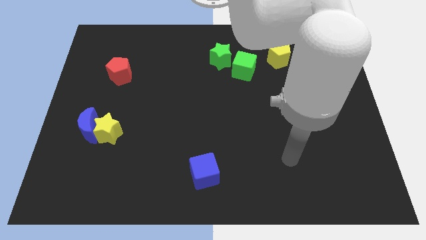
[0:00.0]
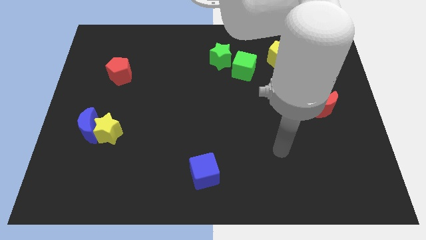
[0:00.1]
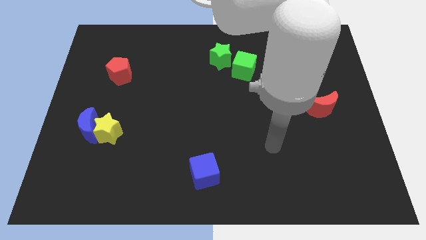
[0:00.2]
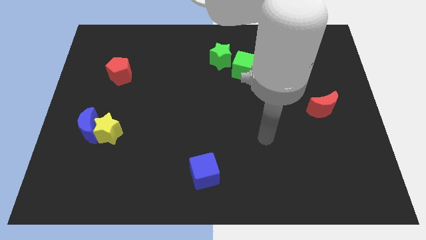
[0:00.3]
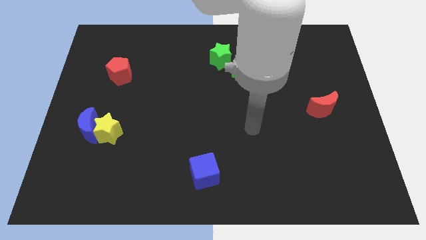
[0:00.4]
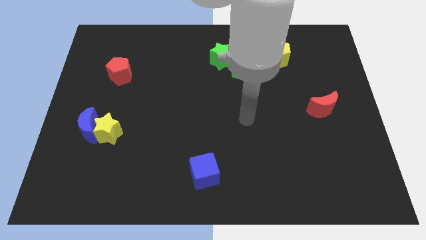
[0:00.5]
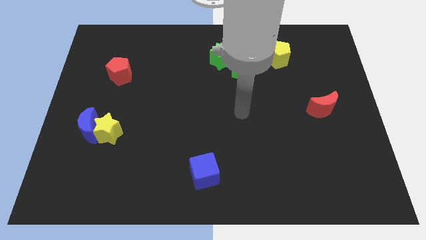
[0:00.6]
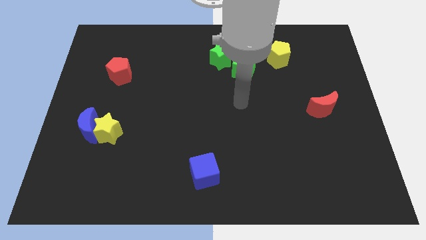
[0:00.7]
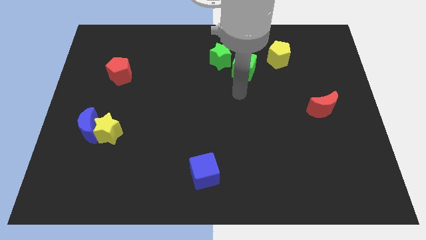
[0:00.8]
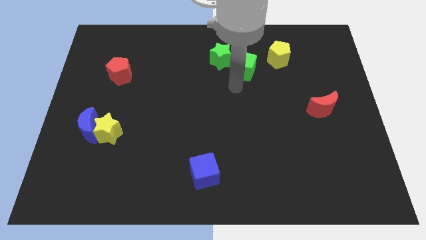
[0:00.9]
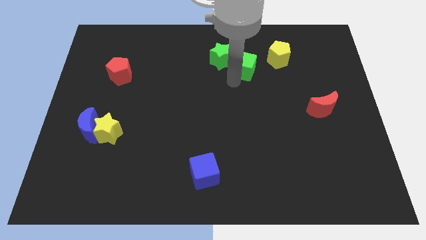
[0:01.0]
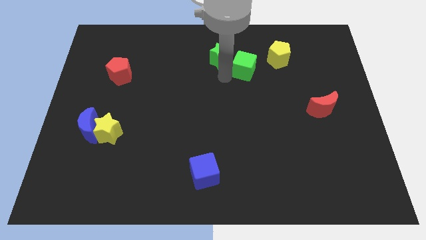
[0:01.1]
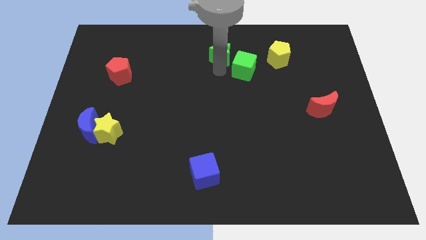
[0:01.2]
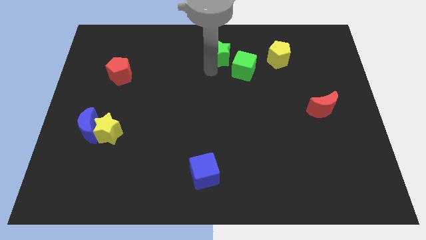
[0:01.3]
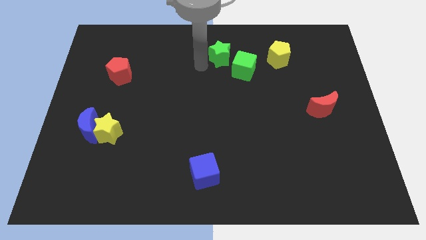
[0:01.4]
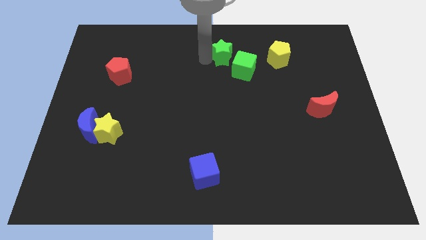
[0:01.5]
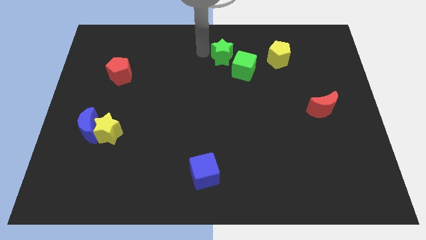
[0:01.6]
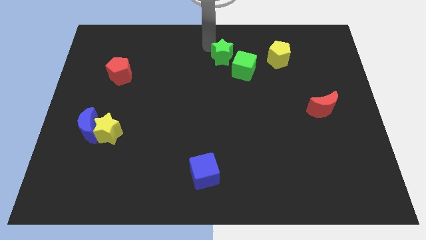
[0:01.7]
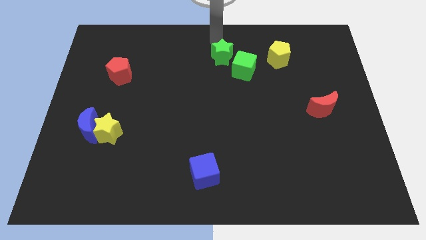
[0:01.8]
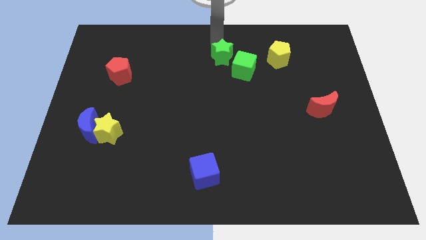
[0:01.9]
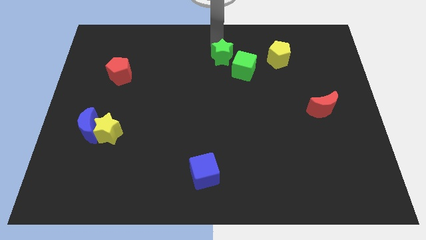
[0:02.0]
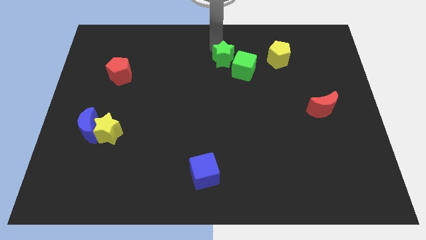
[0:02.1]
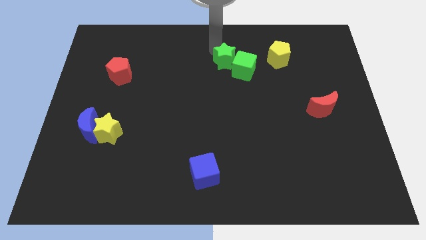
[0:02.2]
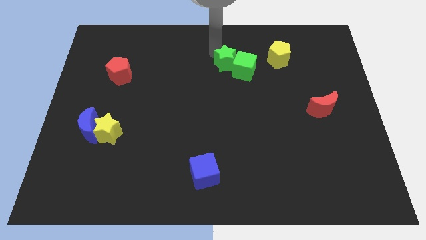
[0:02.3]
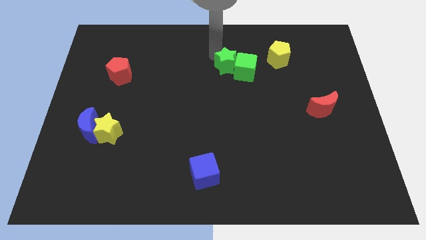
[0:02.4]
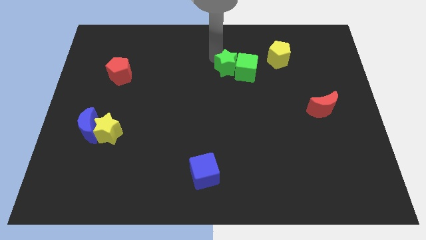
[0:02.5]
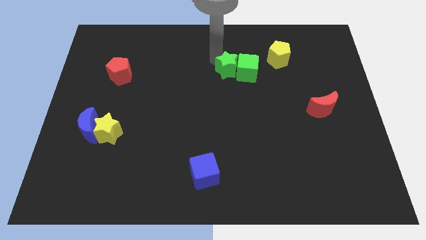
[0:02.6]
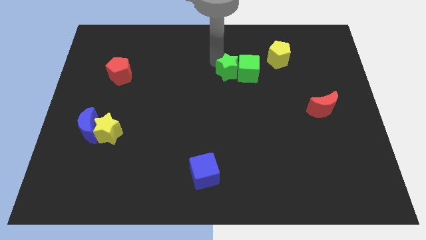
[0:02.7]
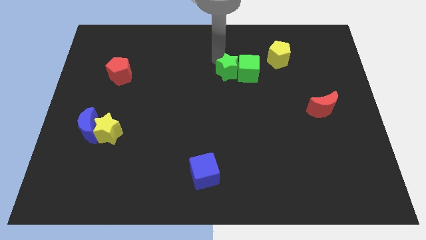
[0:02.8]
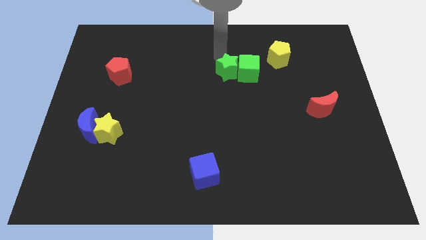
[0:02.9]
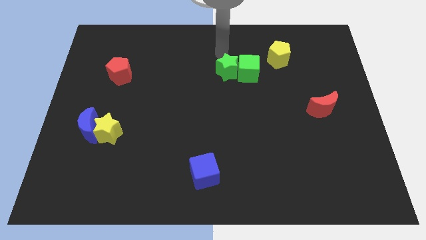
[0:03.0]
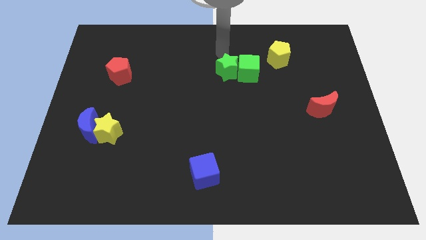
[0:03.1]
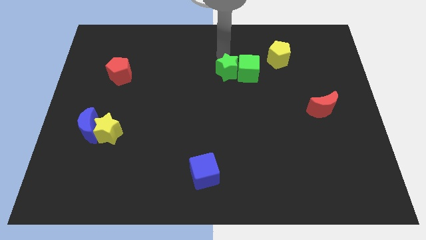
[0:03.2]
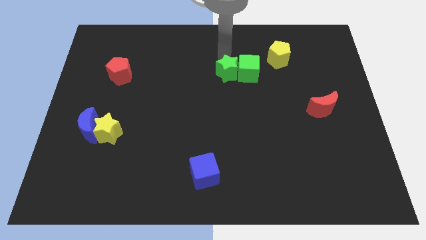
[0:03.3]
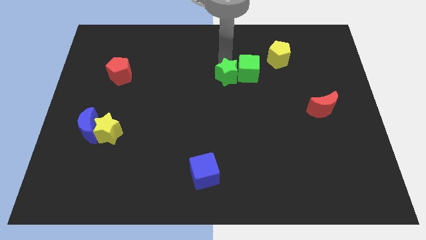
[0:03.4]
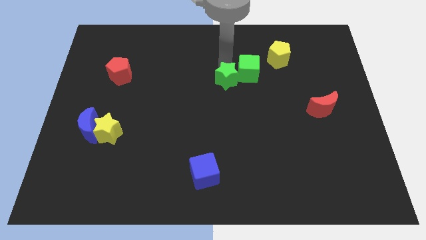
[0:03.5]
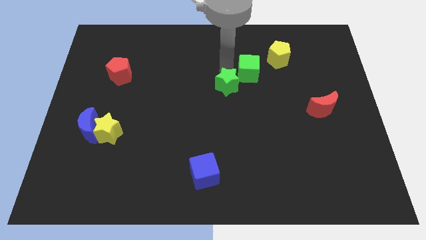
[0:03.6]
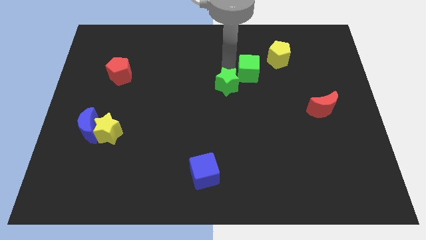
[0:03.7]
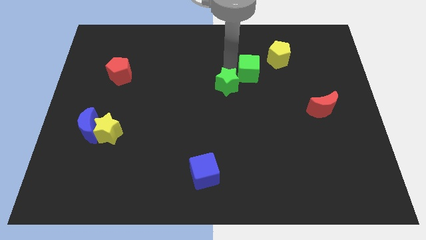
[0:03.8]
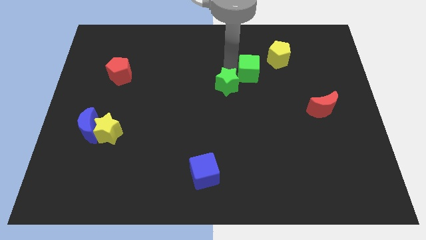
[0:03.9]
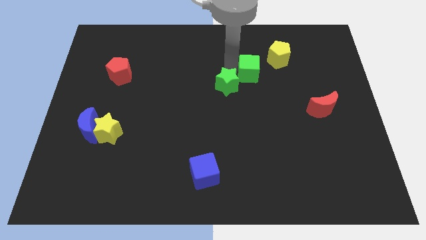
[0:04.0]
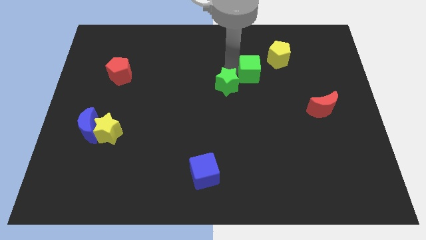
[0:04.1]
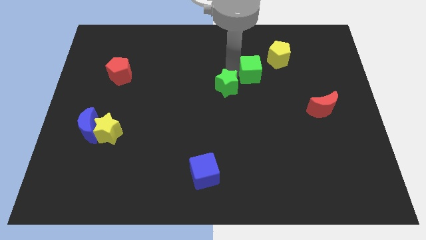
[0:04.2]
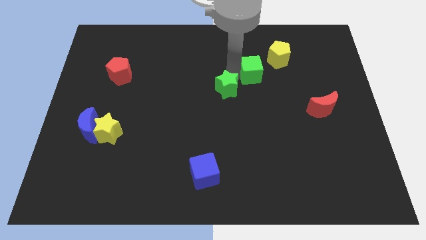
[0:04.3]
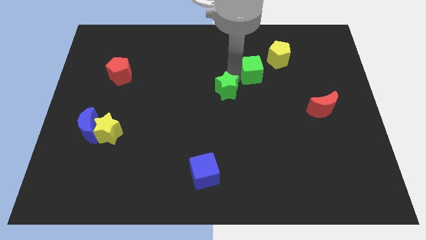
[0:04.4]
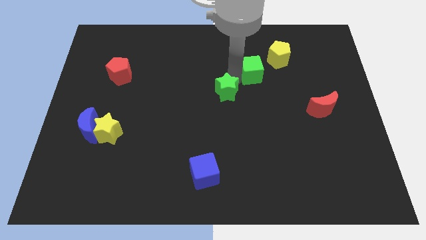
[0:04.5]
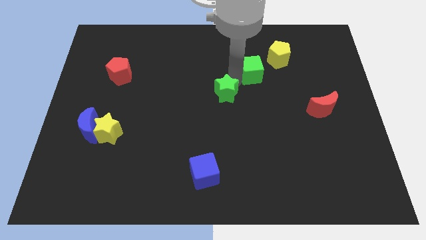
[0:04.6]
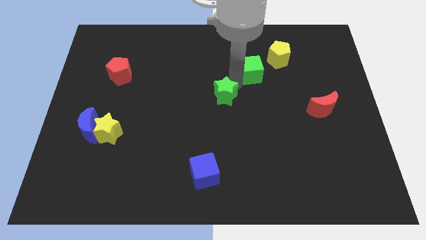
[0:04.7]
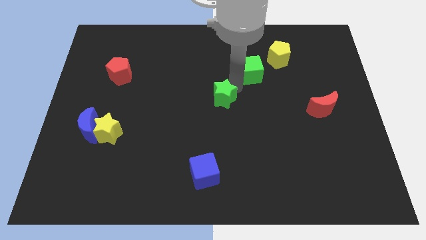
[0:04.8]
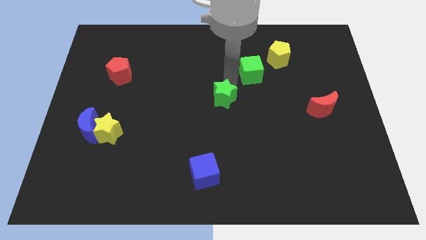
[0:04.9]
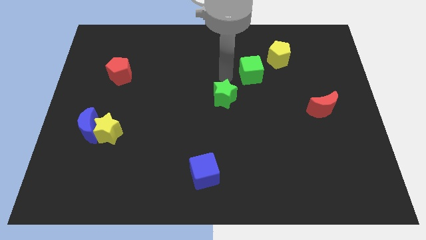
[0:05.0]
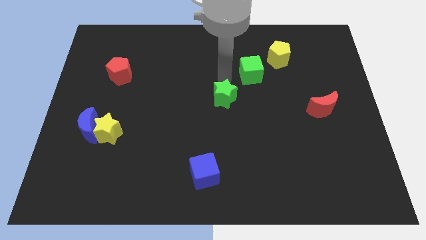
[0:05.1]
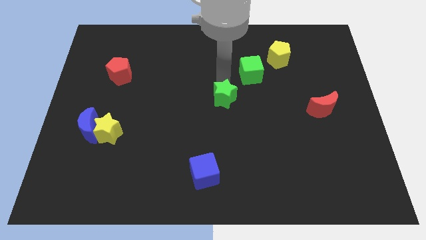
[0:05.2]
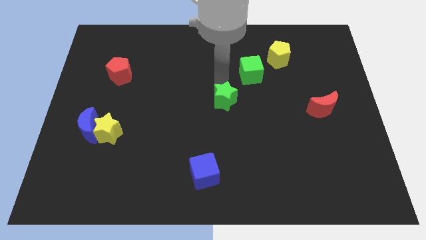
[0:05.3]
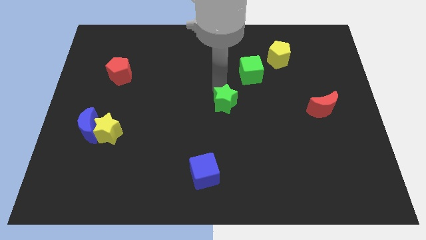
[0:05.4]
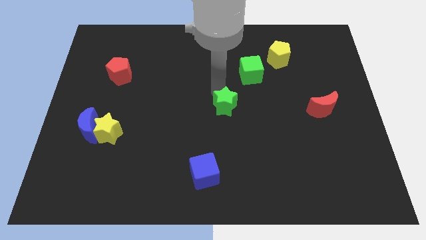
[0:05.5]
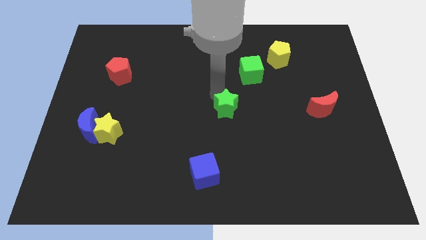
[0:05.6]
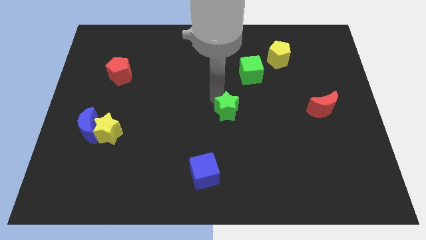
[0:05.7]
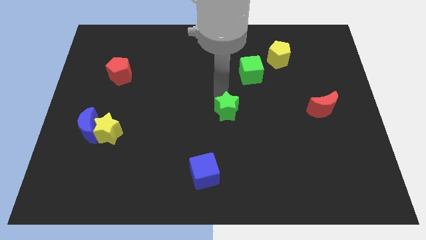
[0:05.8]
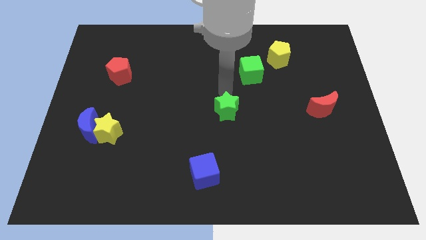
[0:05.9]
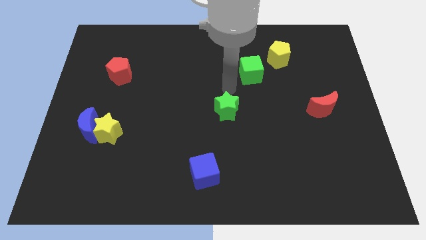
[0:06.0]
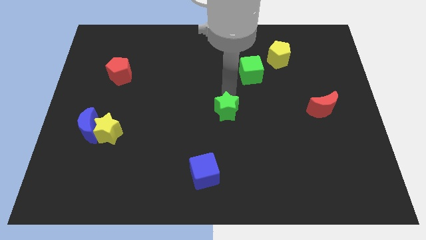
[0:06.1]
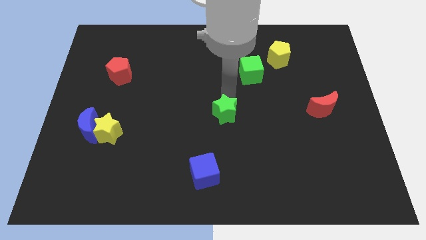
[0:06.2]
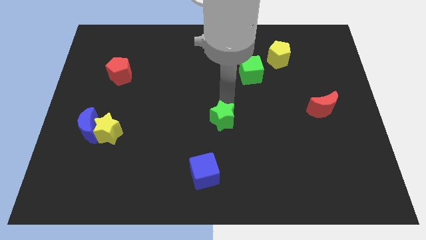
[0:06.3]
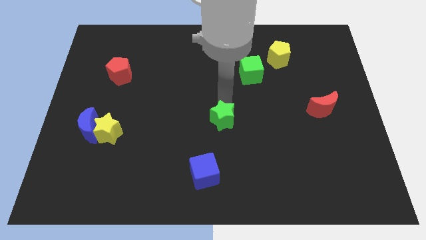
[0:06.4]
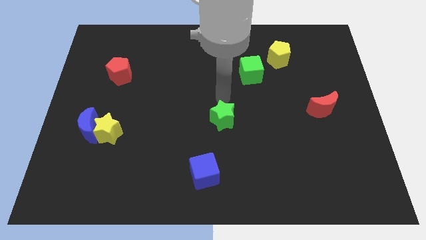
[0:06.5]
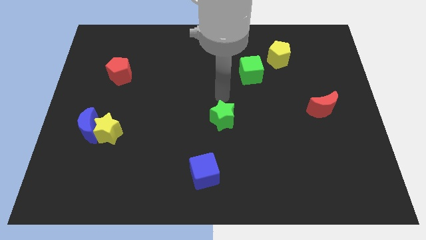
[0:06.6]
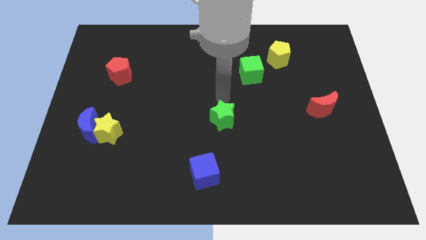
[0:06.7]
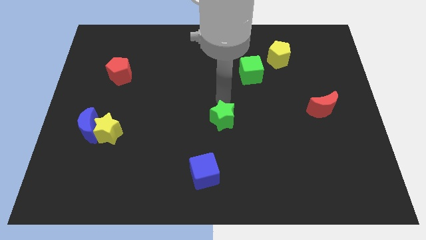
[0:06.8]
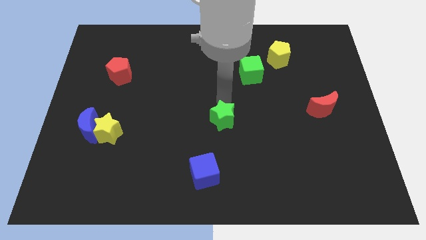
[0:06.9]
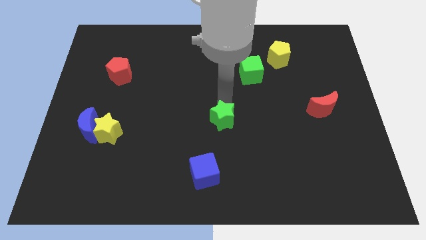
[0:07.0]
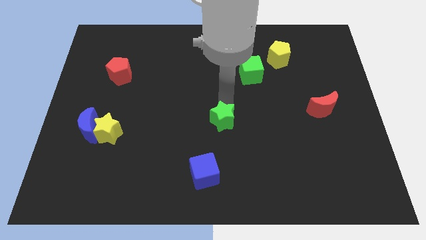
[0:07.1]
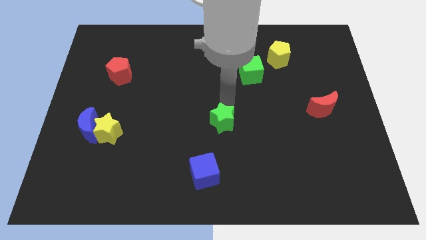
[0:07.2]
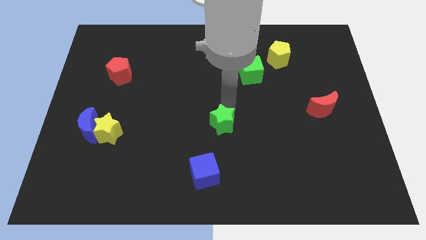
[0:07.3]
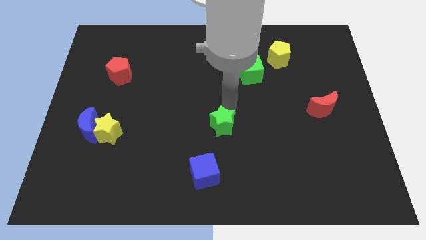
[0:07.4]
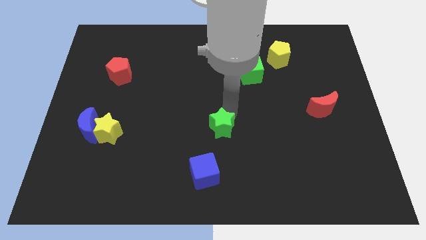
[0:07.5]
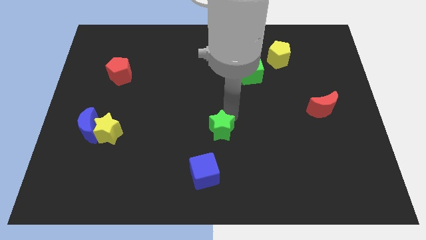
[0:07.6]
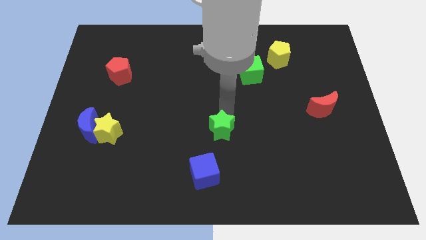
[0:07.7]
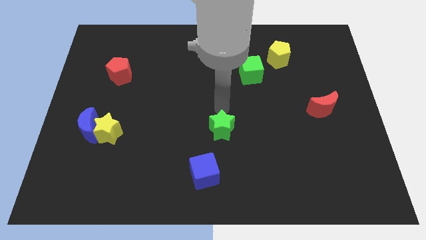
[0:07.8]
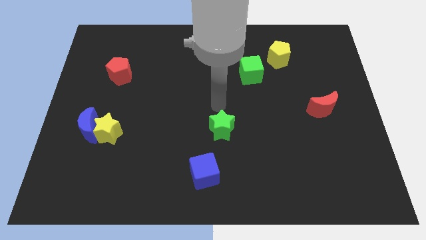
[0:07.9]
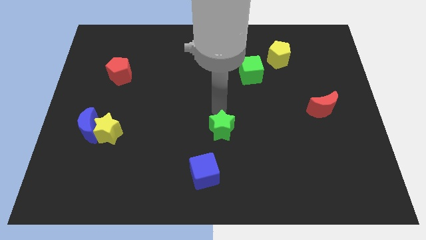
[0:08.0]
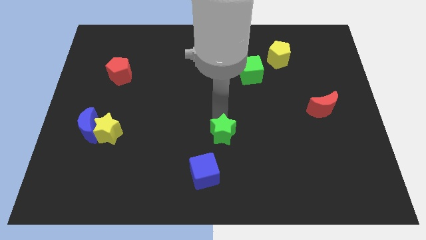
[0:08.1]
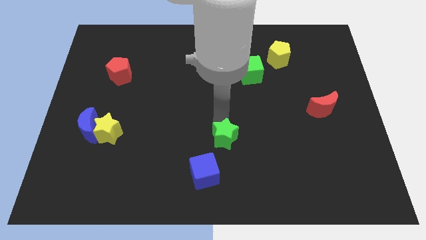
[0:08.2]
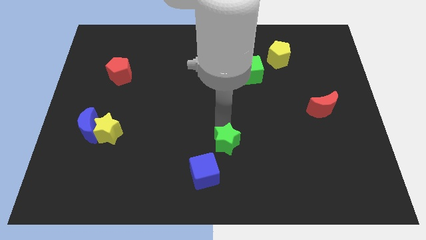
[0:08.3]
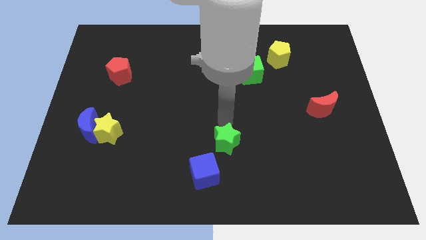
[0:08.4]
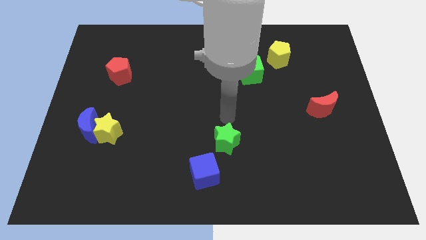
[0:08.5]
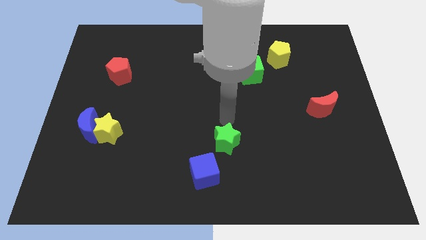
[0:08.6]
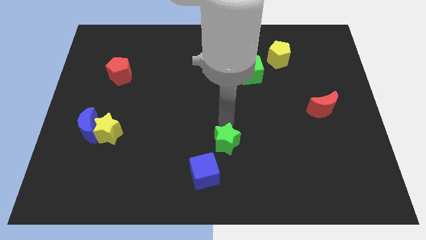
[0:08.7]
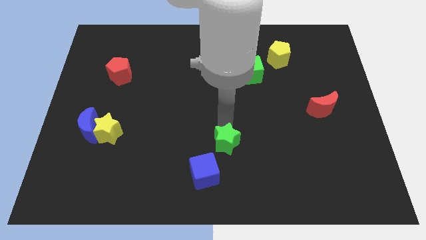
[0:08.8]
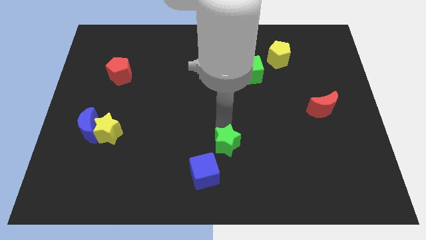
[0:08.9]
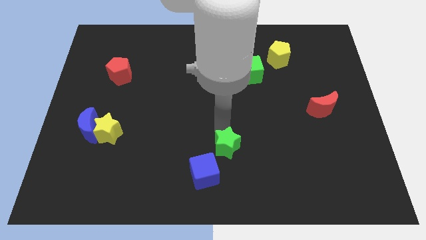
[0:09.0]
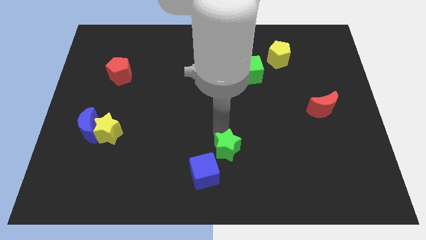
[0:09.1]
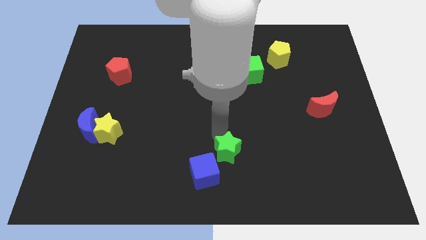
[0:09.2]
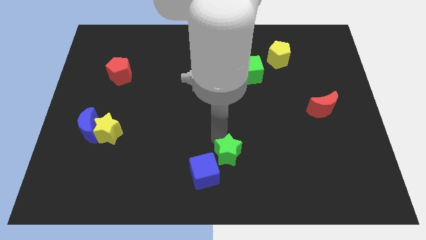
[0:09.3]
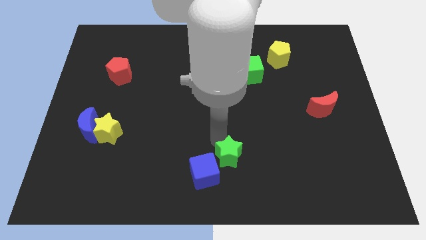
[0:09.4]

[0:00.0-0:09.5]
push the green star to the bottom
